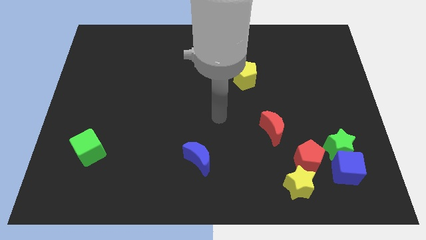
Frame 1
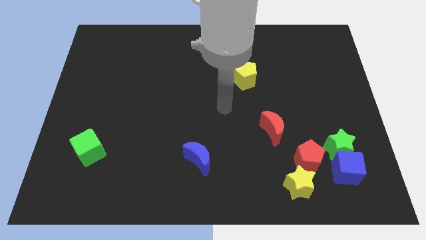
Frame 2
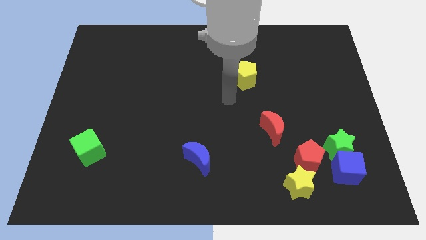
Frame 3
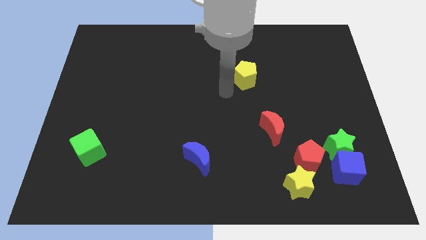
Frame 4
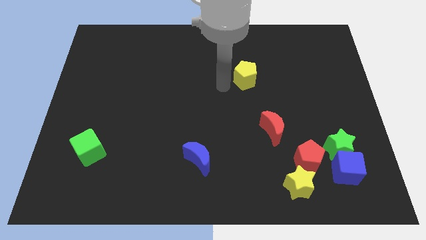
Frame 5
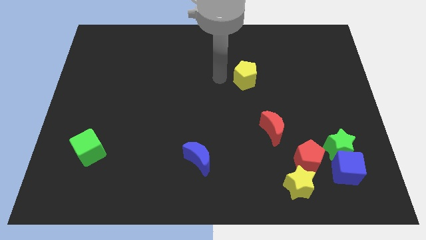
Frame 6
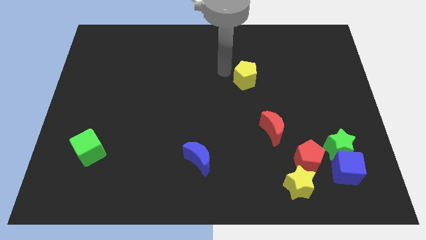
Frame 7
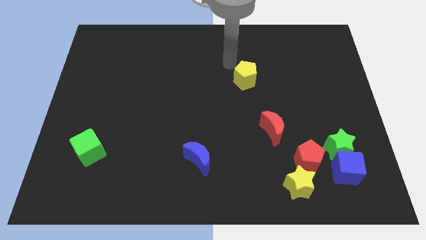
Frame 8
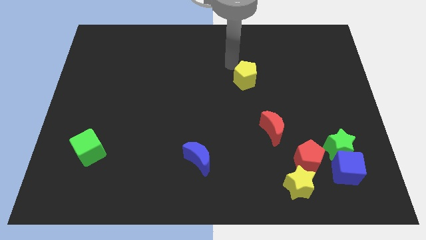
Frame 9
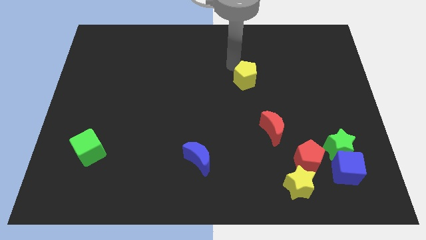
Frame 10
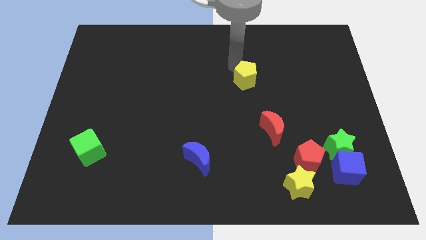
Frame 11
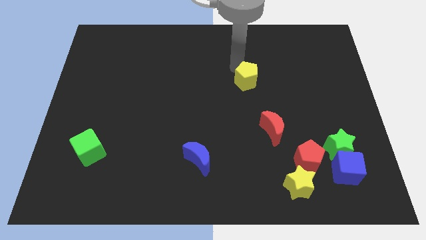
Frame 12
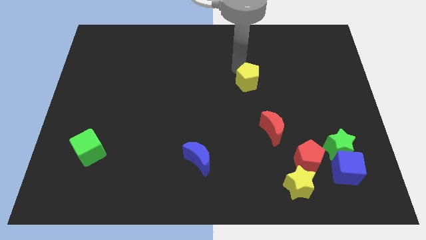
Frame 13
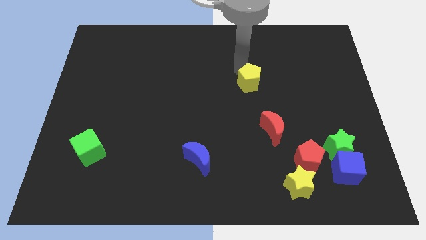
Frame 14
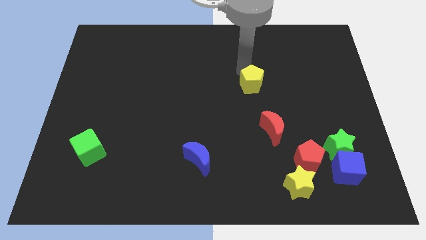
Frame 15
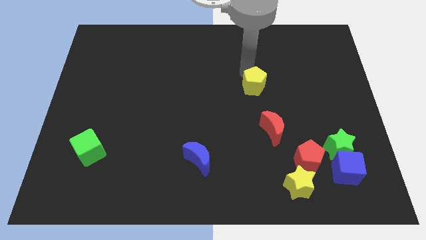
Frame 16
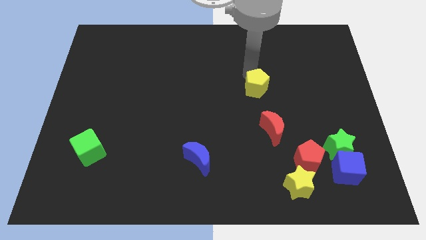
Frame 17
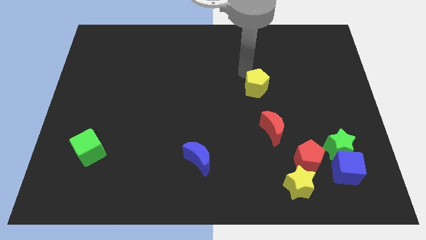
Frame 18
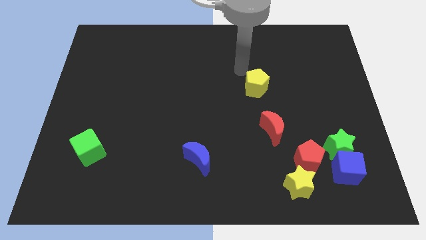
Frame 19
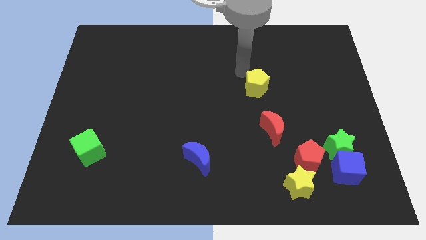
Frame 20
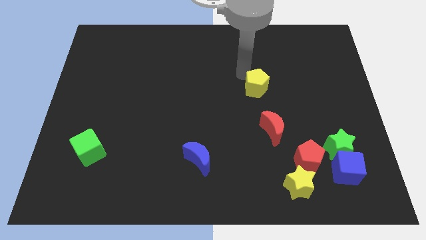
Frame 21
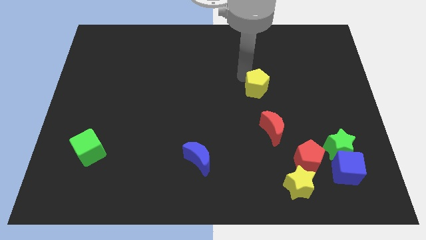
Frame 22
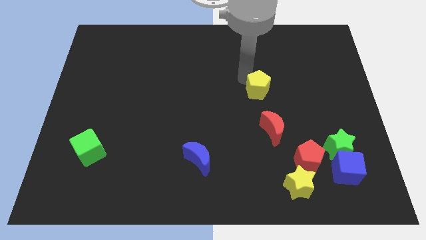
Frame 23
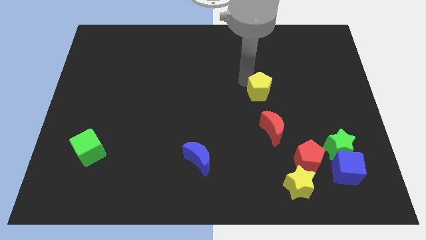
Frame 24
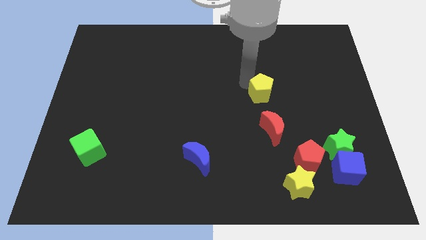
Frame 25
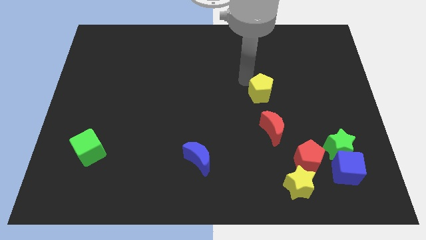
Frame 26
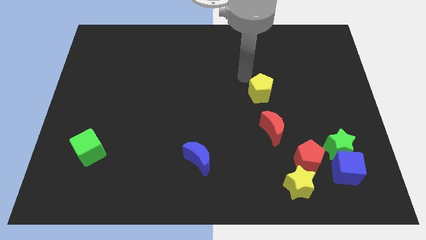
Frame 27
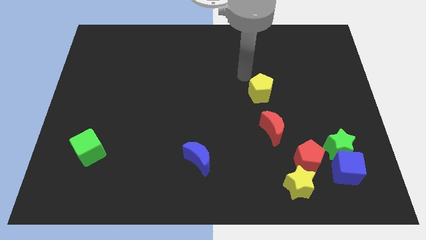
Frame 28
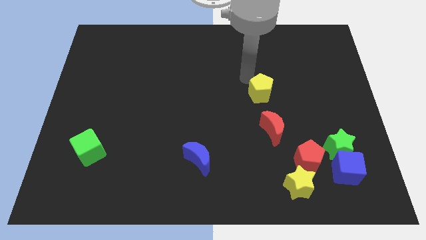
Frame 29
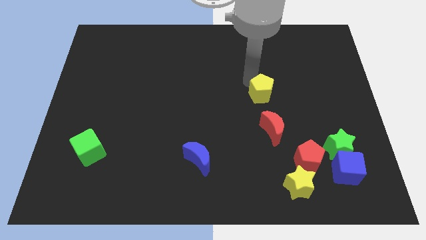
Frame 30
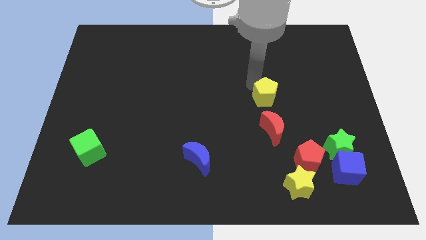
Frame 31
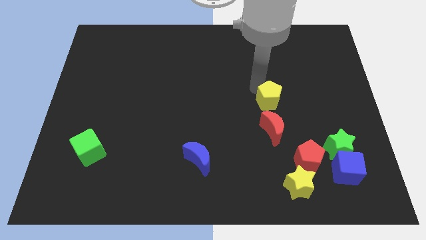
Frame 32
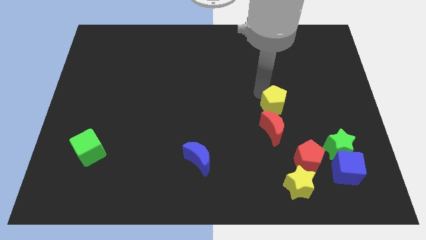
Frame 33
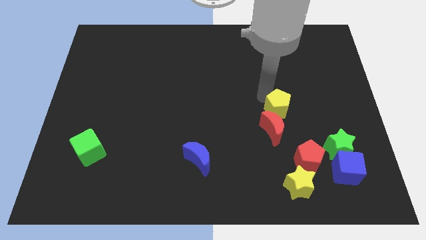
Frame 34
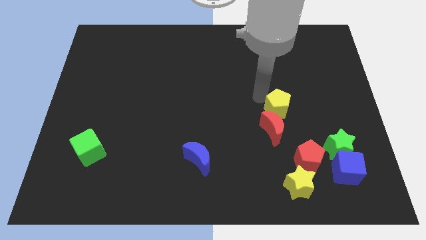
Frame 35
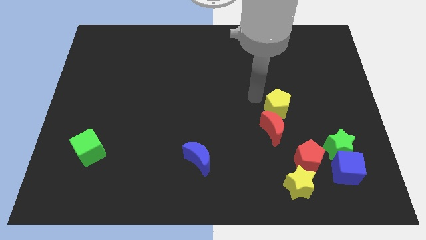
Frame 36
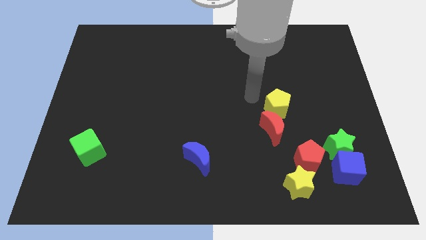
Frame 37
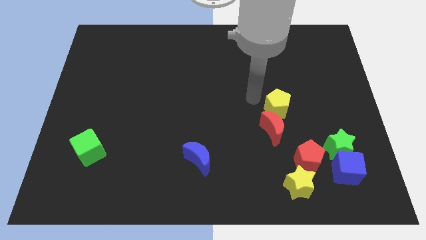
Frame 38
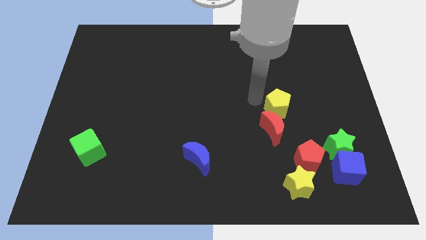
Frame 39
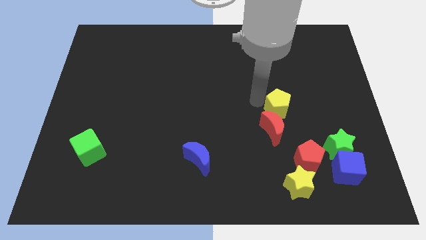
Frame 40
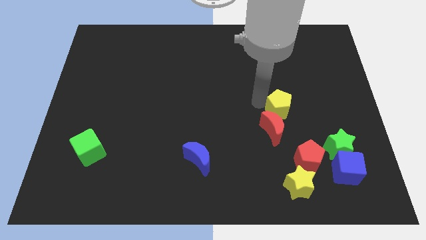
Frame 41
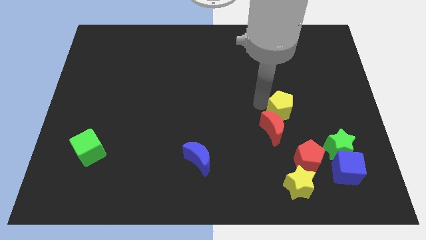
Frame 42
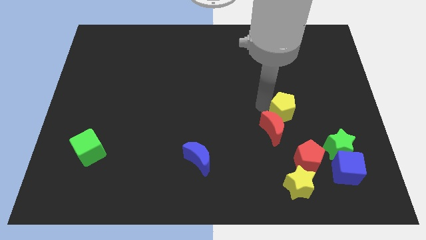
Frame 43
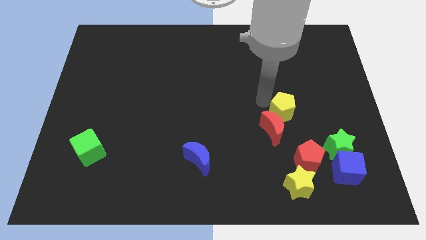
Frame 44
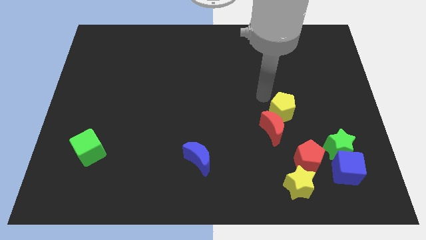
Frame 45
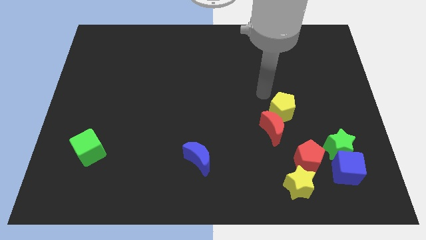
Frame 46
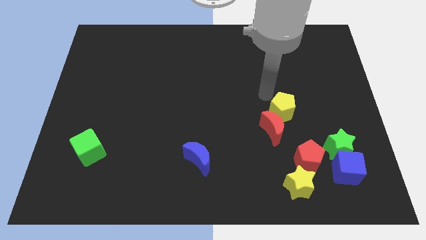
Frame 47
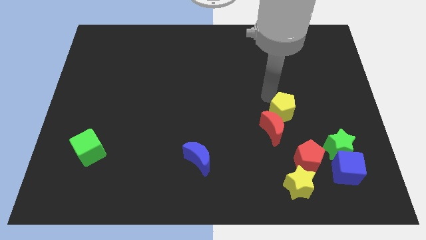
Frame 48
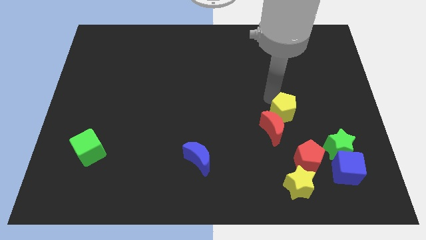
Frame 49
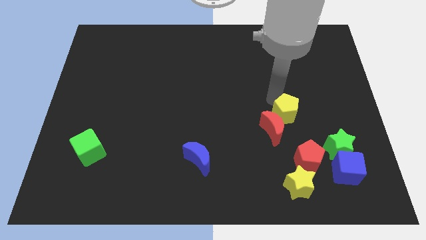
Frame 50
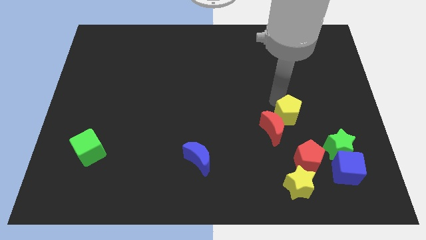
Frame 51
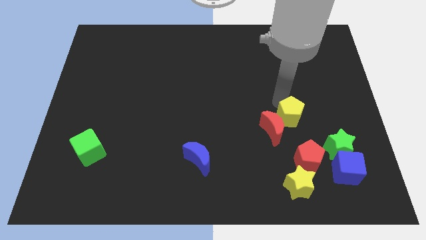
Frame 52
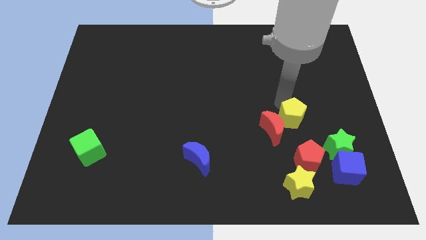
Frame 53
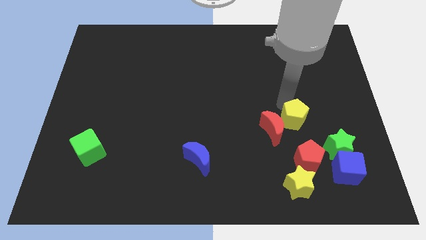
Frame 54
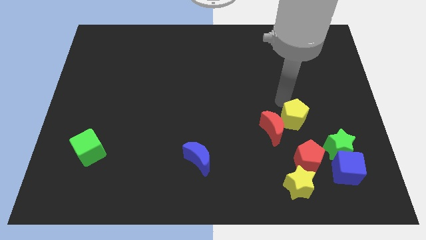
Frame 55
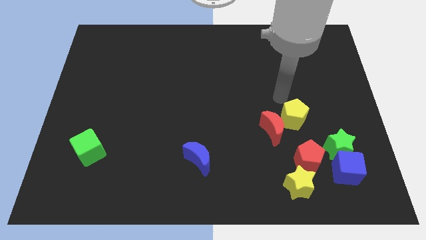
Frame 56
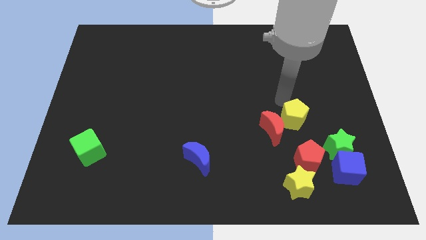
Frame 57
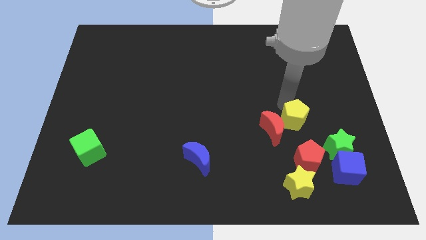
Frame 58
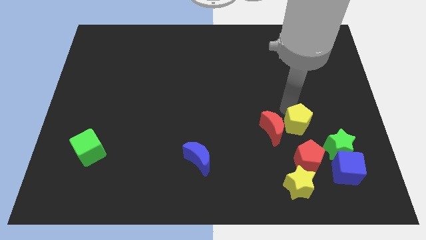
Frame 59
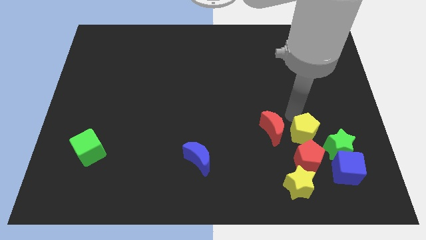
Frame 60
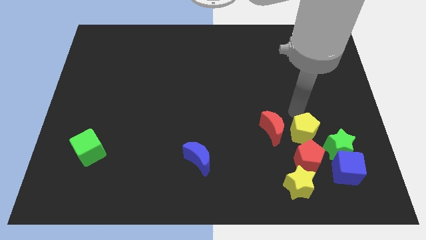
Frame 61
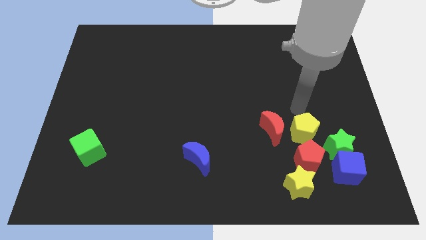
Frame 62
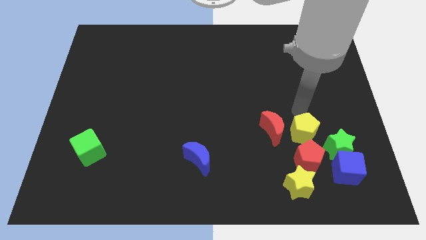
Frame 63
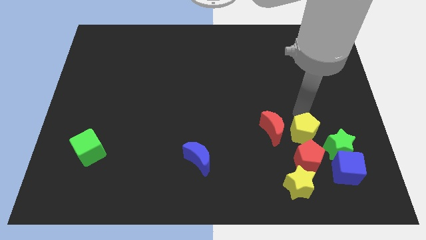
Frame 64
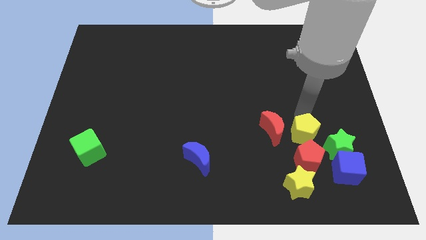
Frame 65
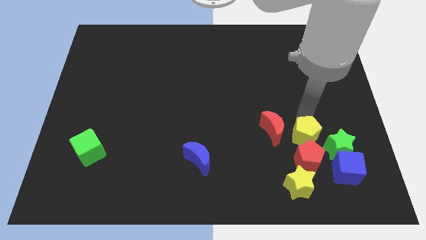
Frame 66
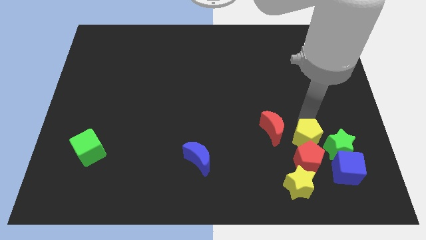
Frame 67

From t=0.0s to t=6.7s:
slide the yellow pentagon to the red pentagon

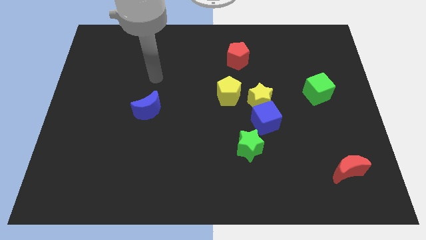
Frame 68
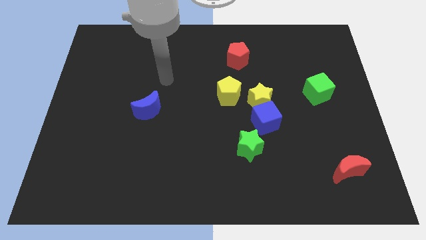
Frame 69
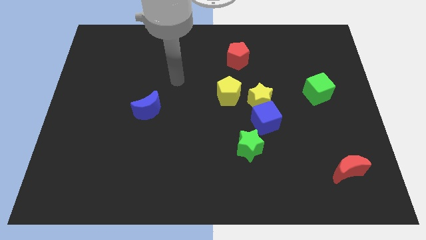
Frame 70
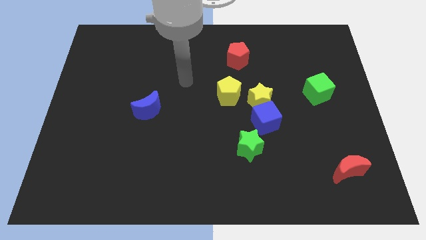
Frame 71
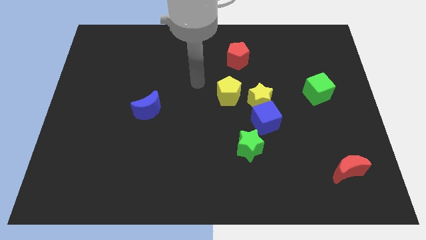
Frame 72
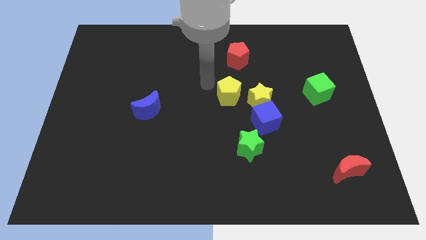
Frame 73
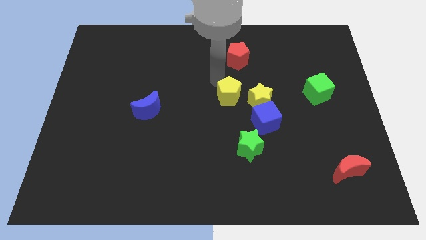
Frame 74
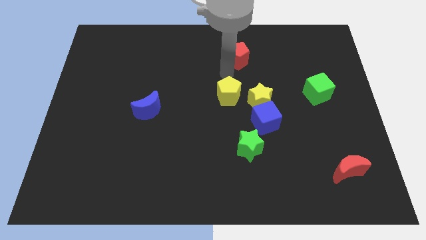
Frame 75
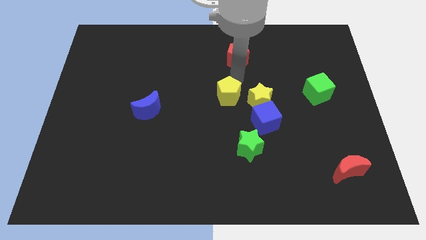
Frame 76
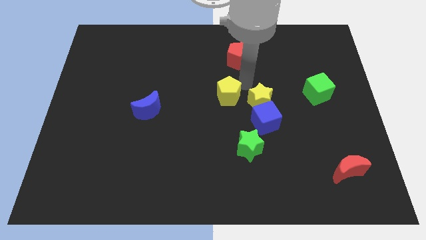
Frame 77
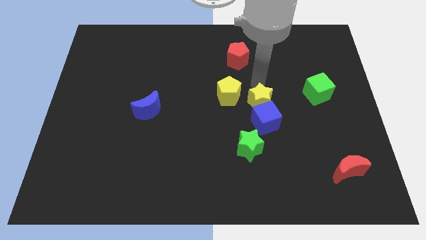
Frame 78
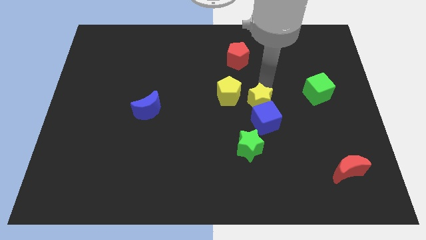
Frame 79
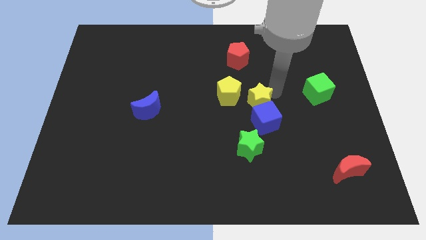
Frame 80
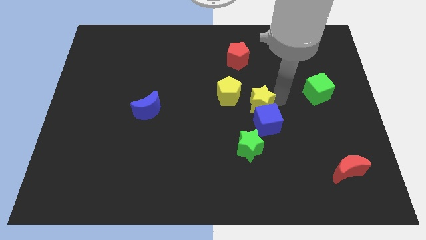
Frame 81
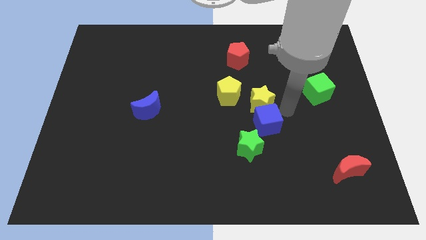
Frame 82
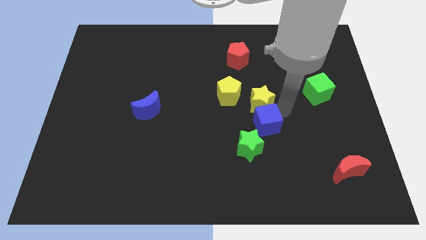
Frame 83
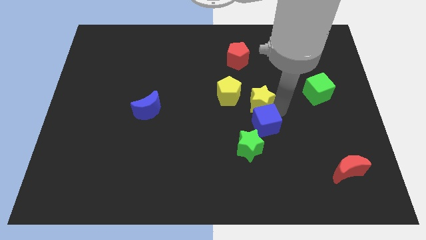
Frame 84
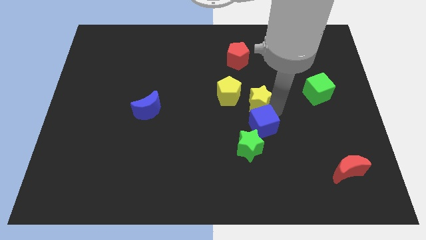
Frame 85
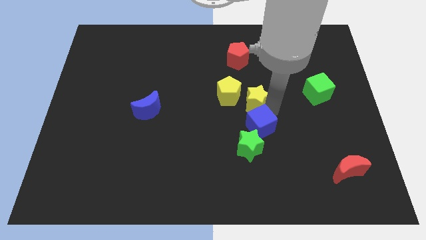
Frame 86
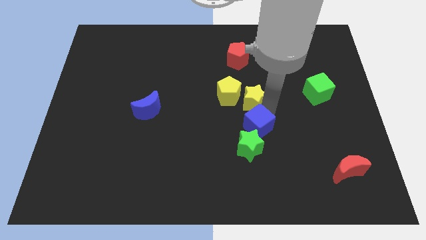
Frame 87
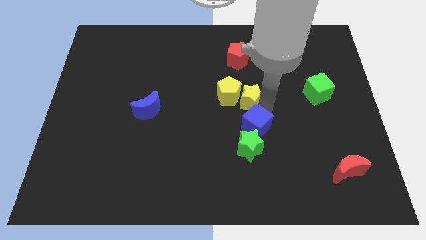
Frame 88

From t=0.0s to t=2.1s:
move the yellow star close to the yellow pentagon
